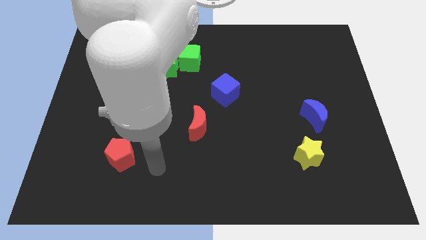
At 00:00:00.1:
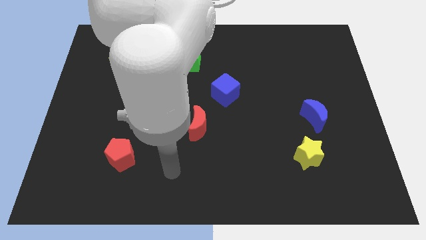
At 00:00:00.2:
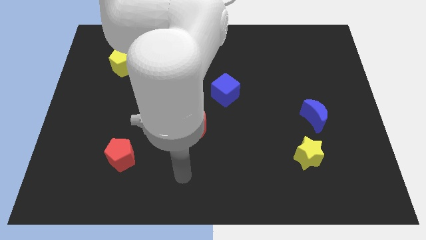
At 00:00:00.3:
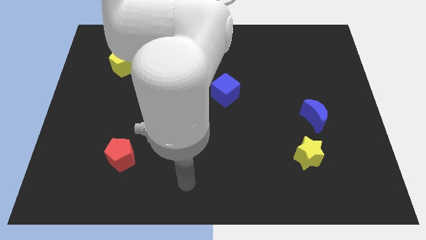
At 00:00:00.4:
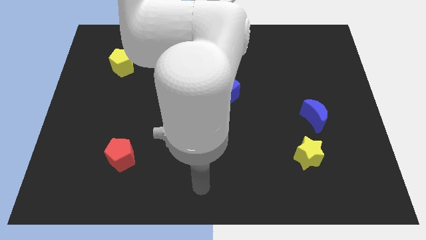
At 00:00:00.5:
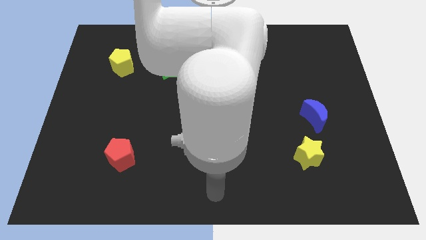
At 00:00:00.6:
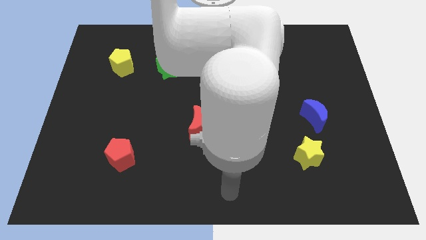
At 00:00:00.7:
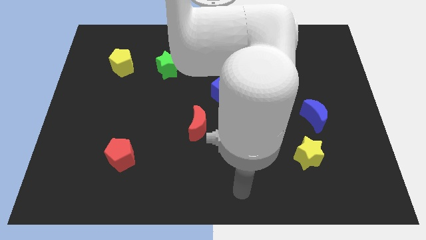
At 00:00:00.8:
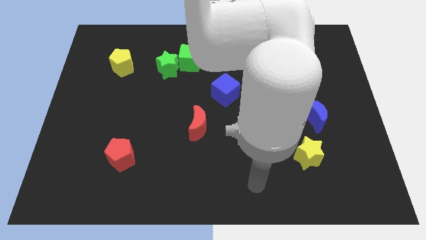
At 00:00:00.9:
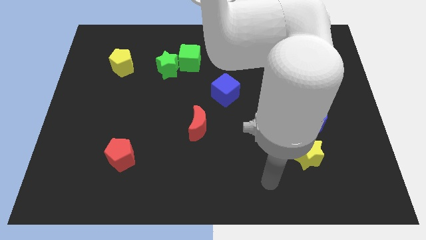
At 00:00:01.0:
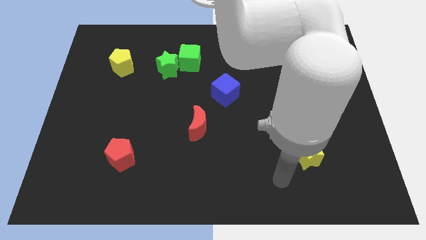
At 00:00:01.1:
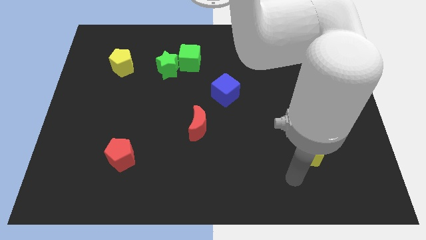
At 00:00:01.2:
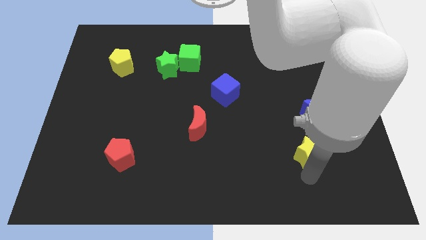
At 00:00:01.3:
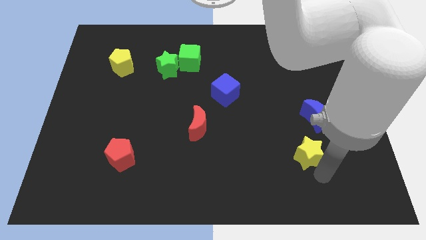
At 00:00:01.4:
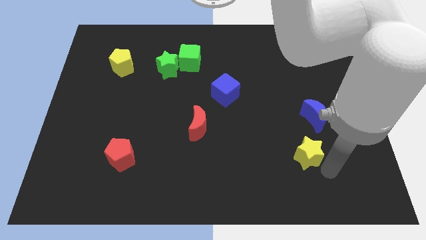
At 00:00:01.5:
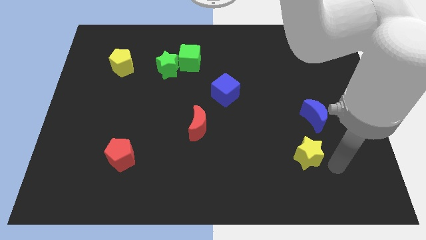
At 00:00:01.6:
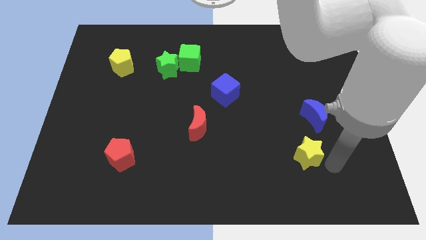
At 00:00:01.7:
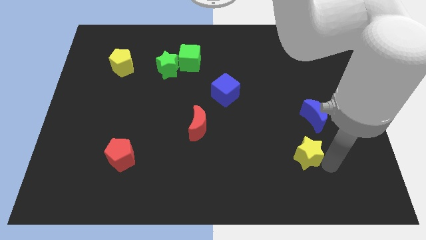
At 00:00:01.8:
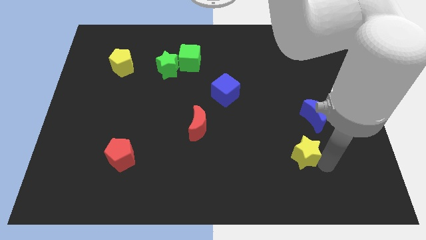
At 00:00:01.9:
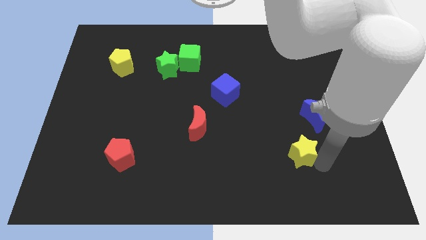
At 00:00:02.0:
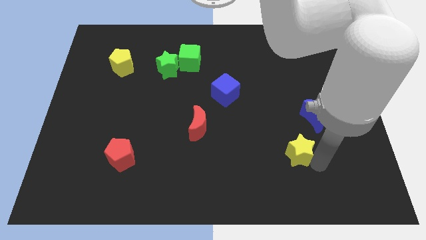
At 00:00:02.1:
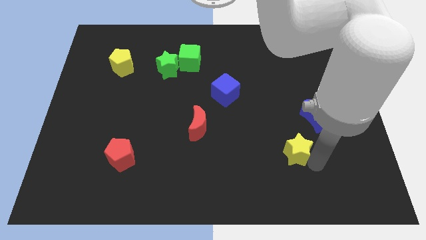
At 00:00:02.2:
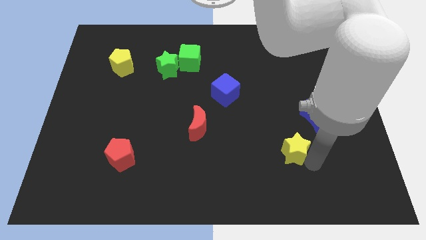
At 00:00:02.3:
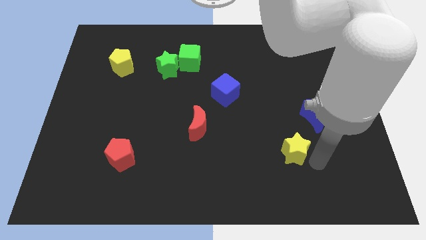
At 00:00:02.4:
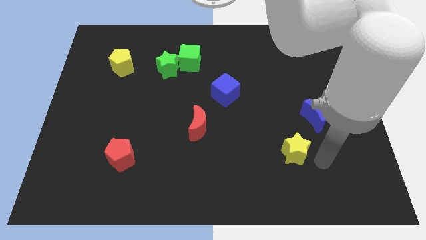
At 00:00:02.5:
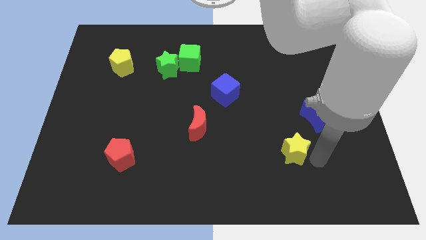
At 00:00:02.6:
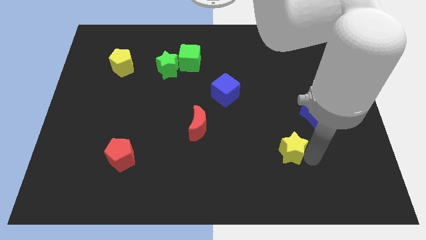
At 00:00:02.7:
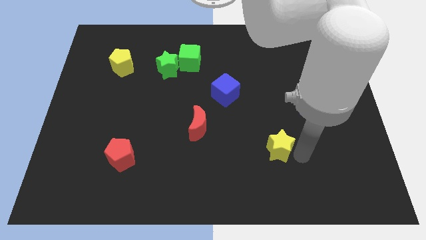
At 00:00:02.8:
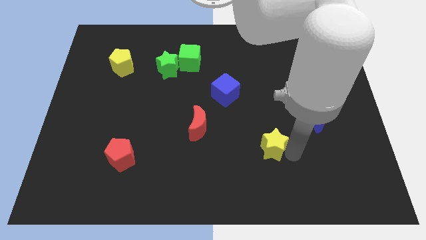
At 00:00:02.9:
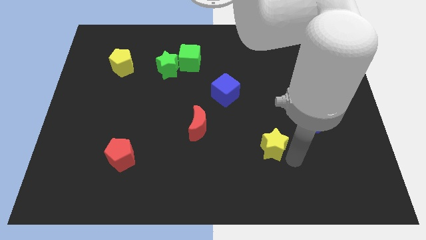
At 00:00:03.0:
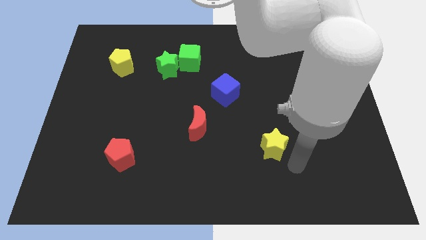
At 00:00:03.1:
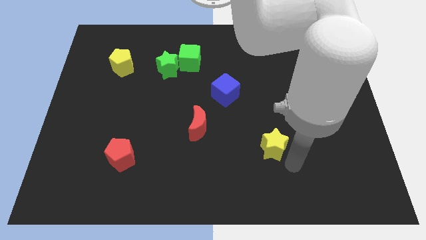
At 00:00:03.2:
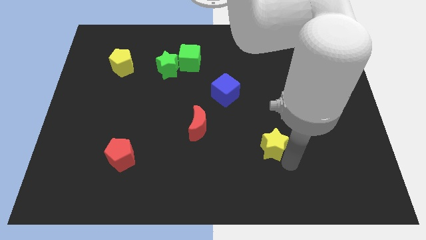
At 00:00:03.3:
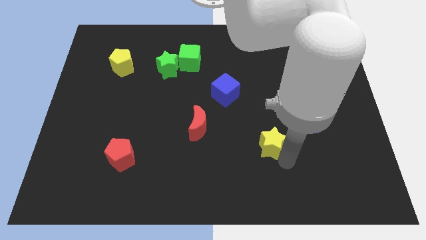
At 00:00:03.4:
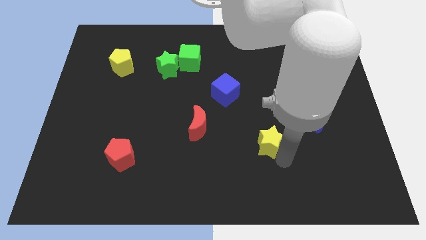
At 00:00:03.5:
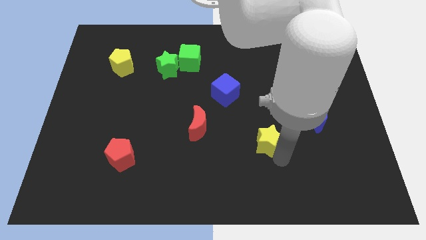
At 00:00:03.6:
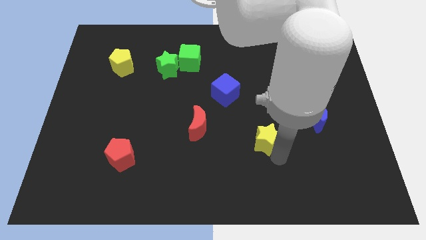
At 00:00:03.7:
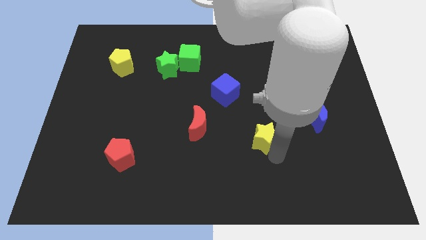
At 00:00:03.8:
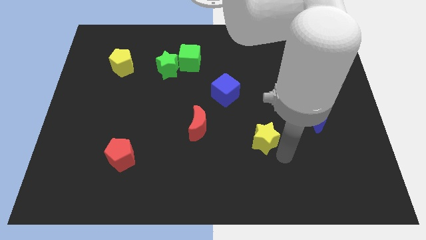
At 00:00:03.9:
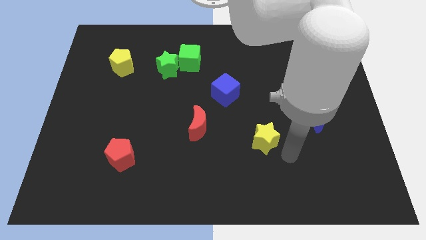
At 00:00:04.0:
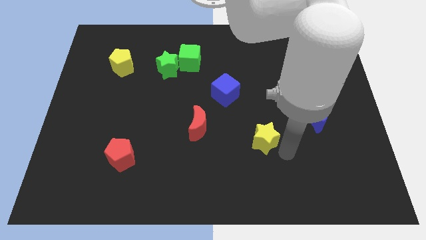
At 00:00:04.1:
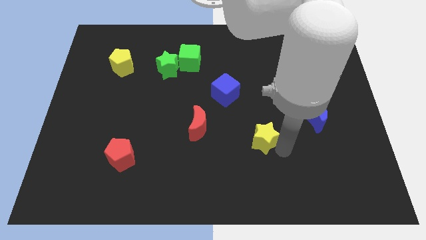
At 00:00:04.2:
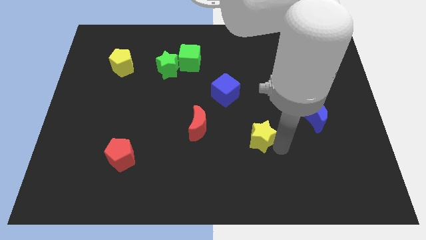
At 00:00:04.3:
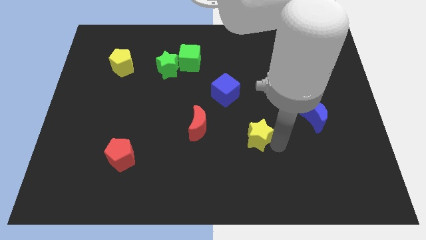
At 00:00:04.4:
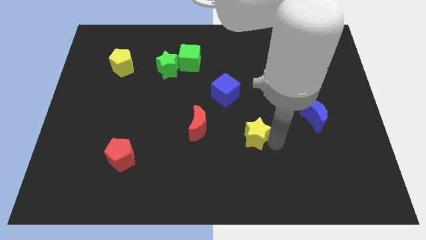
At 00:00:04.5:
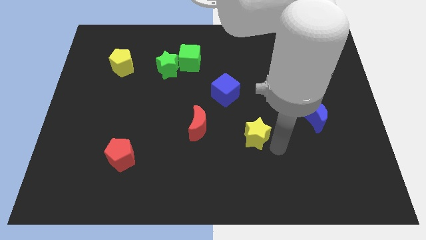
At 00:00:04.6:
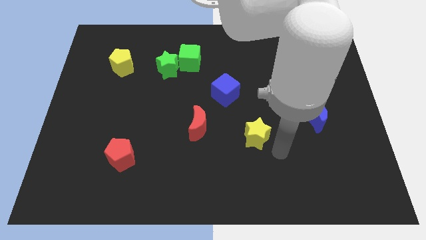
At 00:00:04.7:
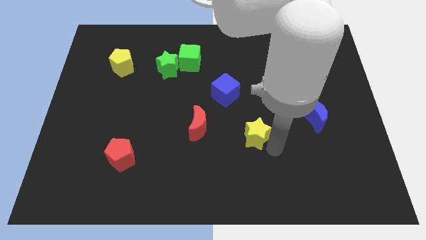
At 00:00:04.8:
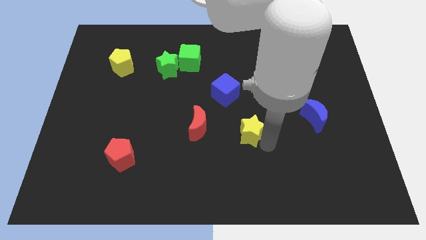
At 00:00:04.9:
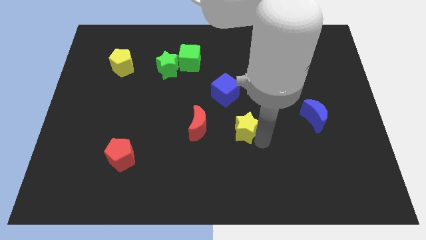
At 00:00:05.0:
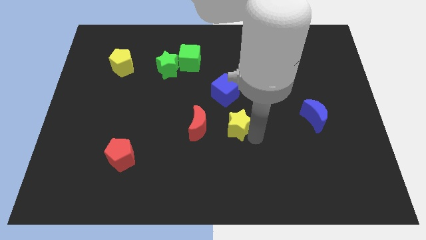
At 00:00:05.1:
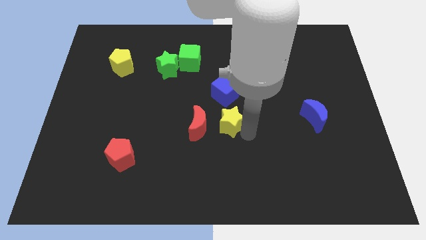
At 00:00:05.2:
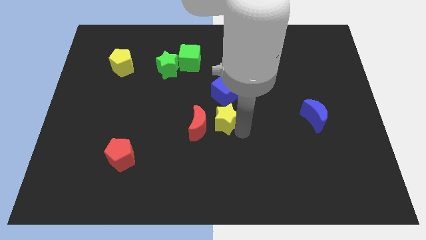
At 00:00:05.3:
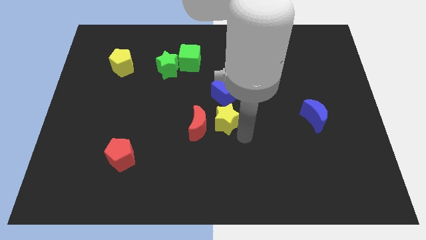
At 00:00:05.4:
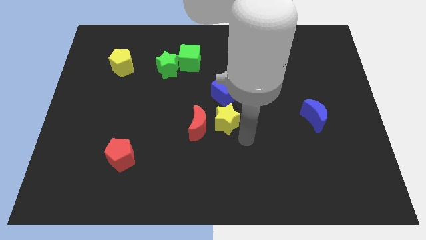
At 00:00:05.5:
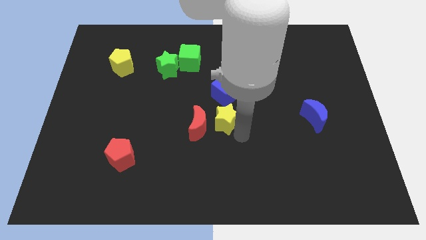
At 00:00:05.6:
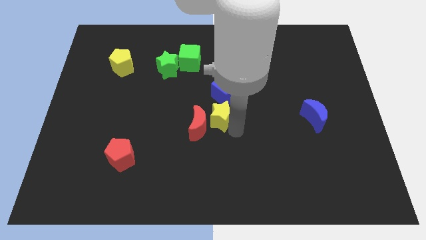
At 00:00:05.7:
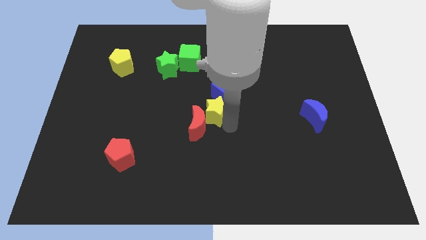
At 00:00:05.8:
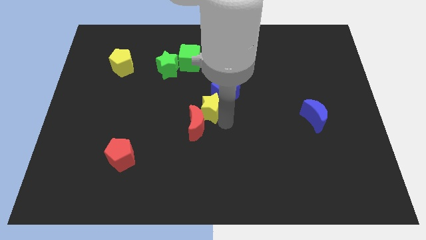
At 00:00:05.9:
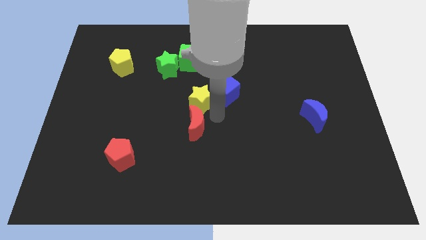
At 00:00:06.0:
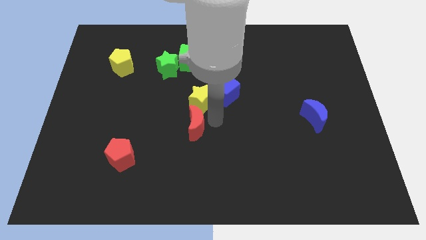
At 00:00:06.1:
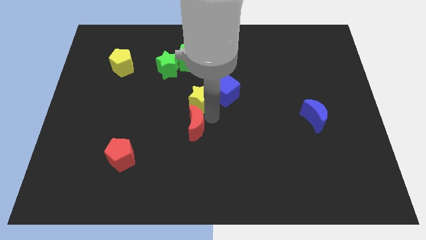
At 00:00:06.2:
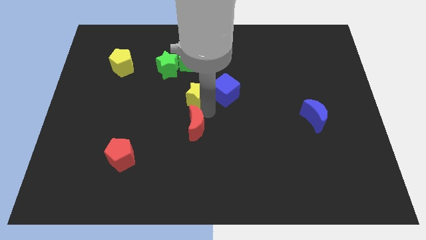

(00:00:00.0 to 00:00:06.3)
move the yellow star to the bottom right side of the green star

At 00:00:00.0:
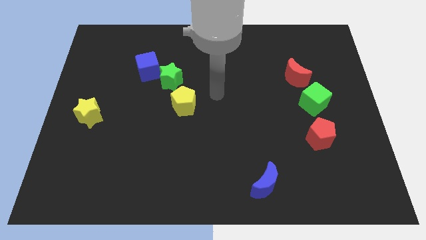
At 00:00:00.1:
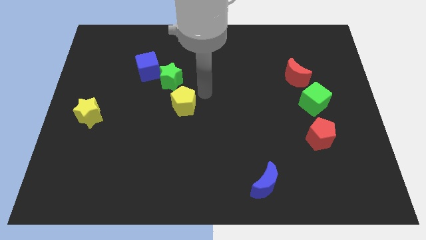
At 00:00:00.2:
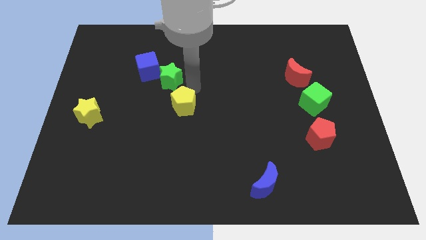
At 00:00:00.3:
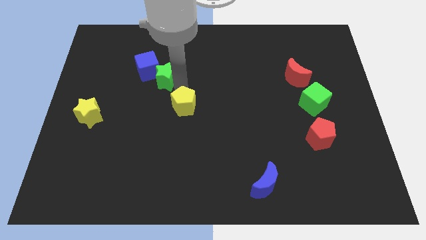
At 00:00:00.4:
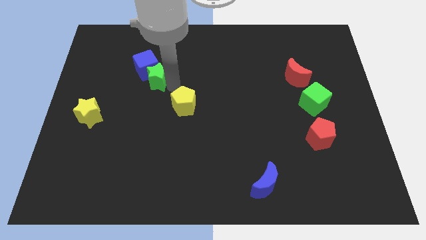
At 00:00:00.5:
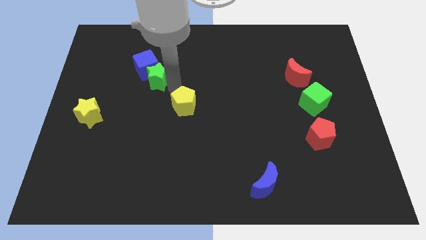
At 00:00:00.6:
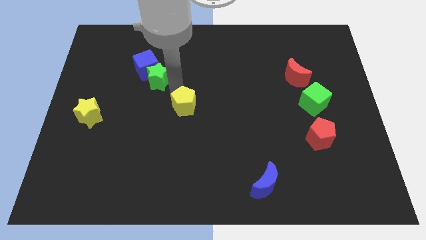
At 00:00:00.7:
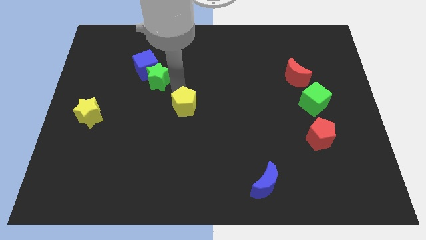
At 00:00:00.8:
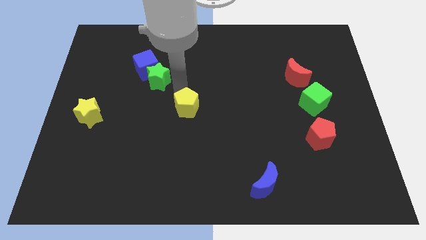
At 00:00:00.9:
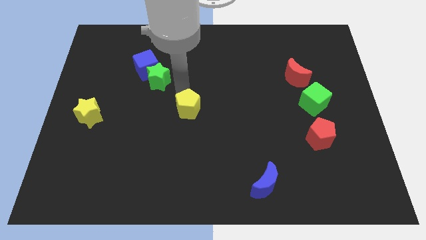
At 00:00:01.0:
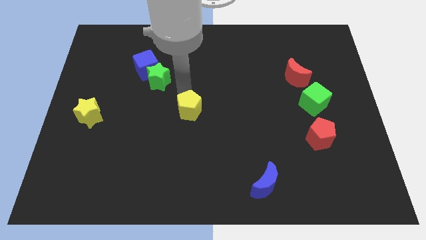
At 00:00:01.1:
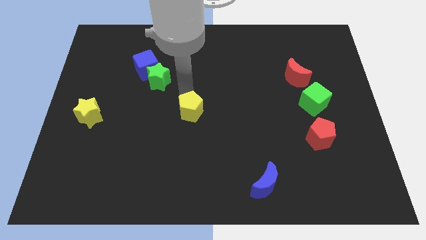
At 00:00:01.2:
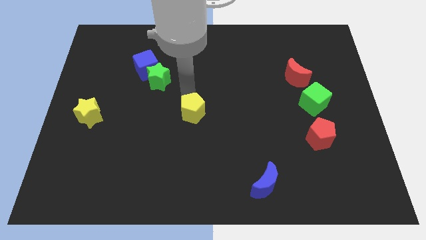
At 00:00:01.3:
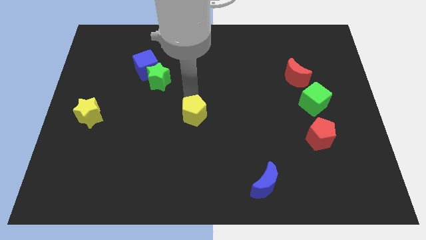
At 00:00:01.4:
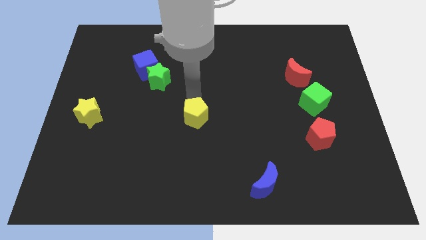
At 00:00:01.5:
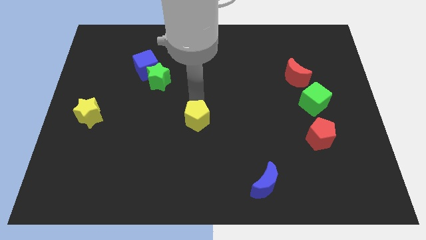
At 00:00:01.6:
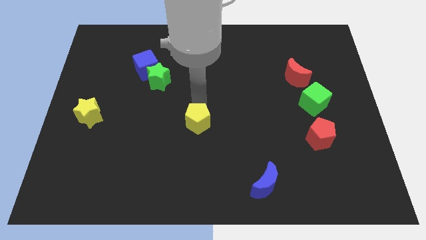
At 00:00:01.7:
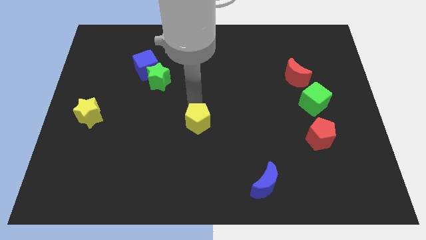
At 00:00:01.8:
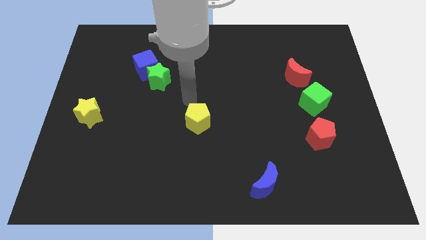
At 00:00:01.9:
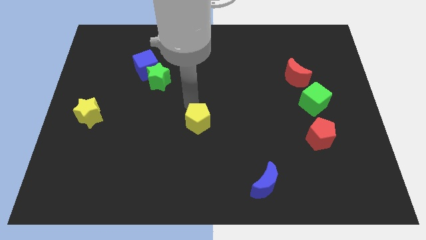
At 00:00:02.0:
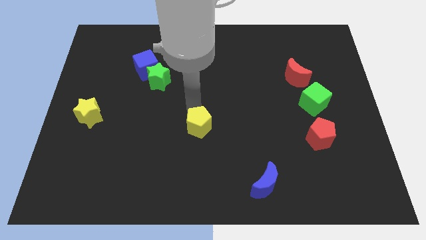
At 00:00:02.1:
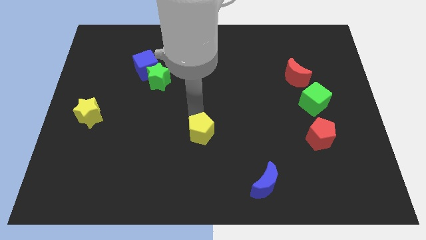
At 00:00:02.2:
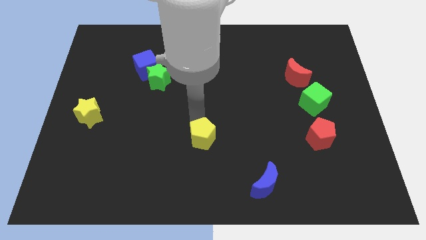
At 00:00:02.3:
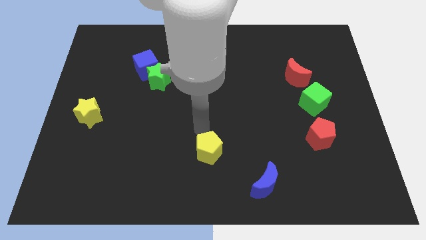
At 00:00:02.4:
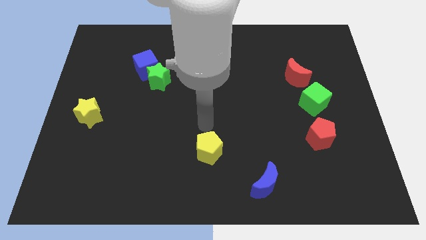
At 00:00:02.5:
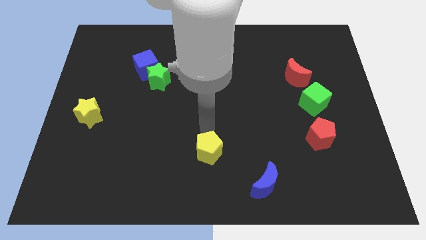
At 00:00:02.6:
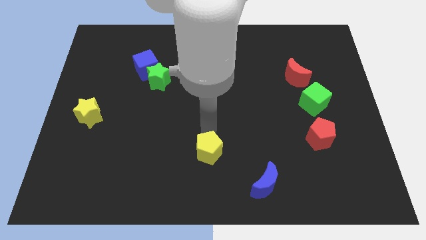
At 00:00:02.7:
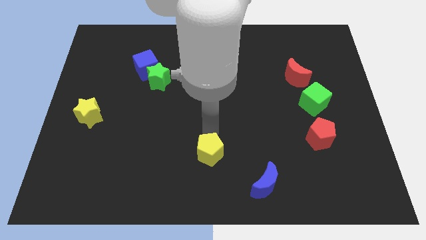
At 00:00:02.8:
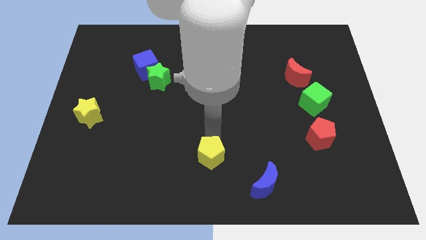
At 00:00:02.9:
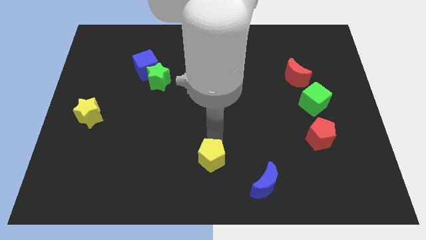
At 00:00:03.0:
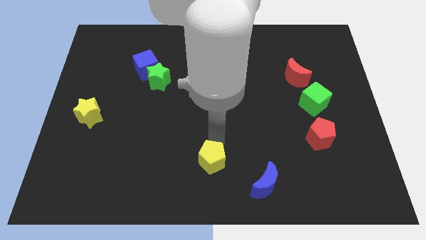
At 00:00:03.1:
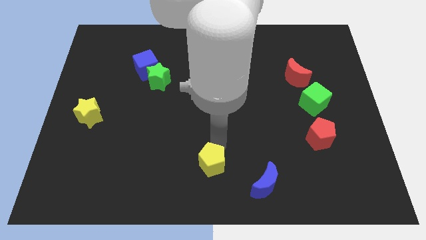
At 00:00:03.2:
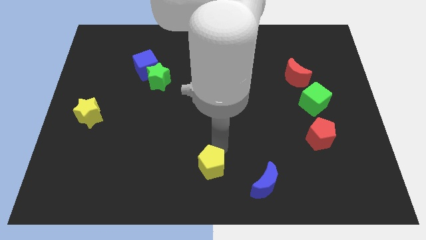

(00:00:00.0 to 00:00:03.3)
push the yellow pentagon left of the blue moon
